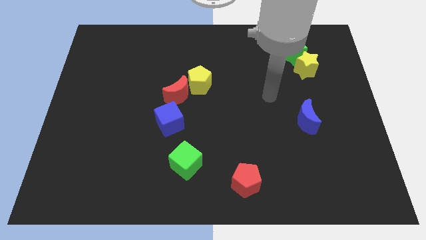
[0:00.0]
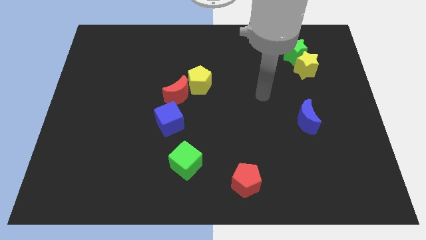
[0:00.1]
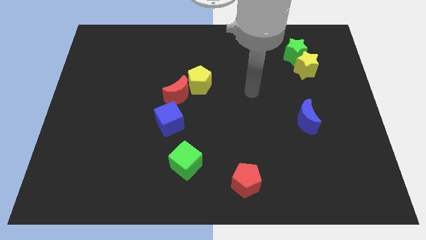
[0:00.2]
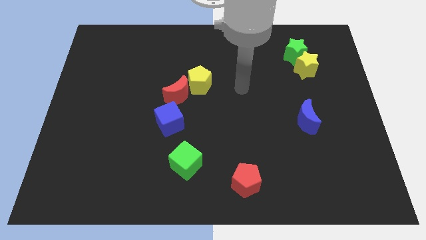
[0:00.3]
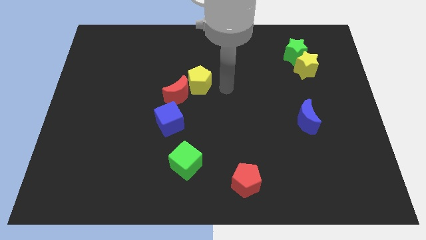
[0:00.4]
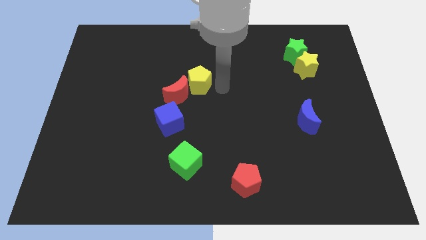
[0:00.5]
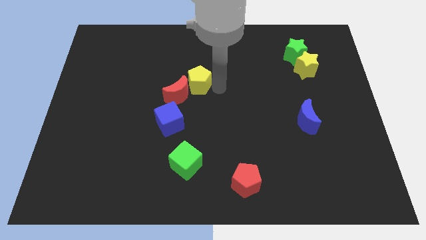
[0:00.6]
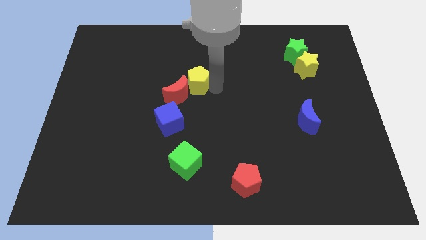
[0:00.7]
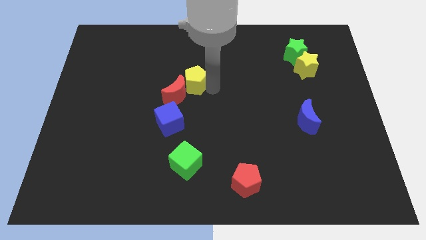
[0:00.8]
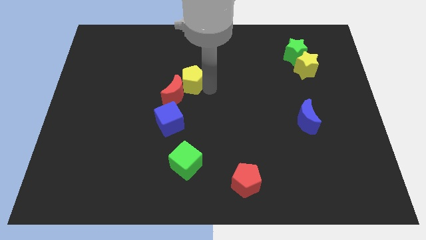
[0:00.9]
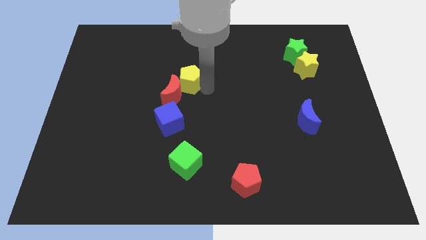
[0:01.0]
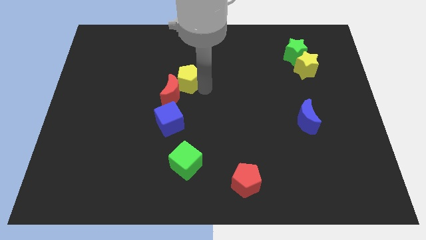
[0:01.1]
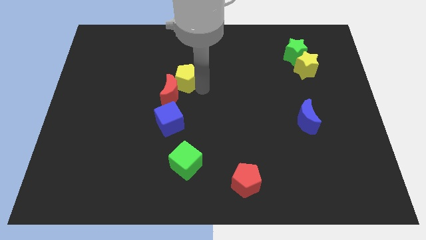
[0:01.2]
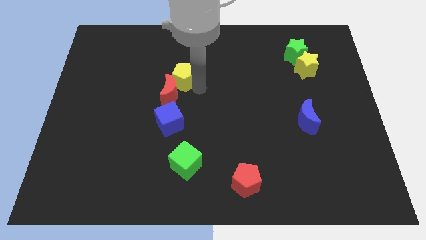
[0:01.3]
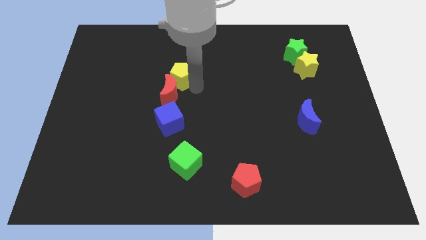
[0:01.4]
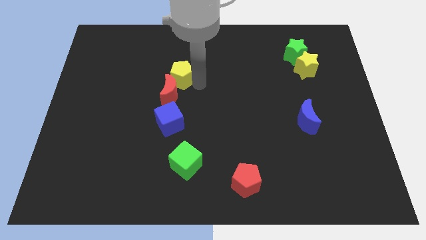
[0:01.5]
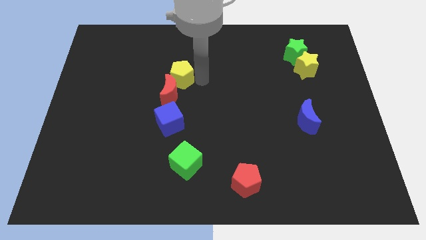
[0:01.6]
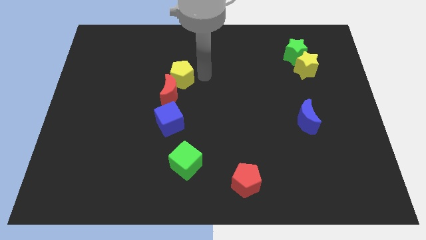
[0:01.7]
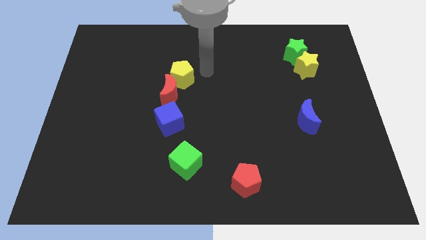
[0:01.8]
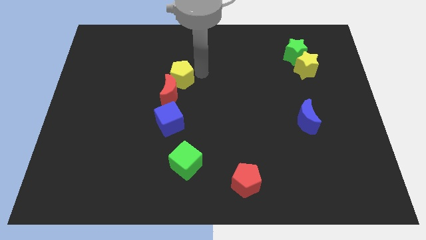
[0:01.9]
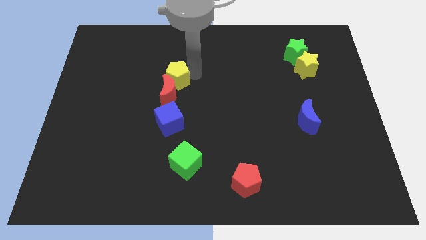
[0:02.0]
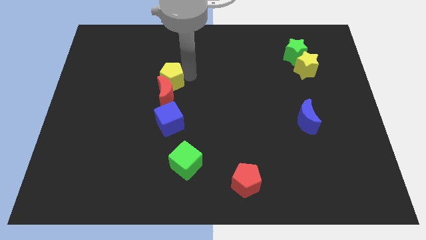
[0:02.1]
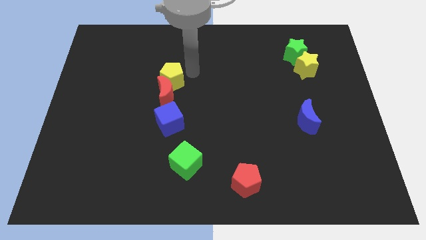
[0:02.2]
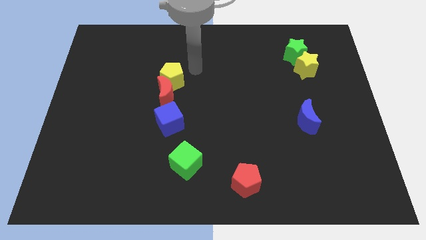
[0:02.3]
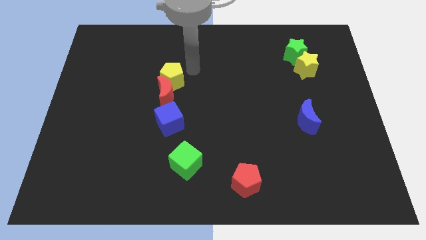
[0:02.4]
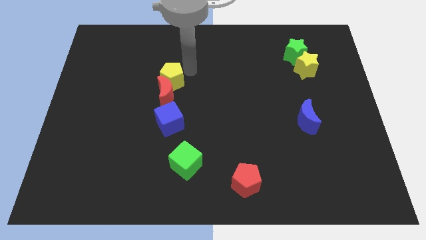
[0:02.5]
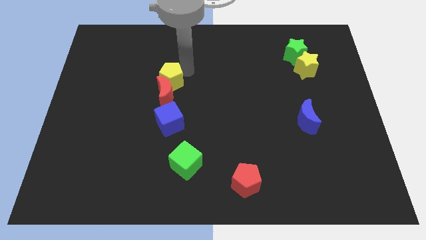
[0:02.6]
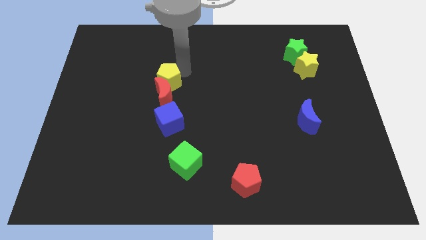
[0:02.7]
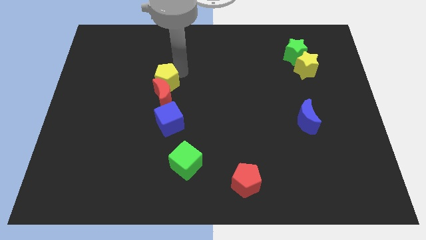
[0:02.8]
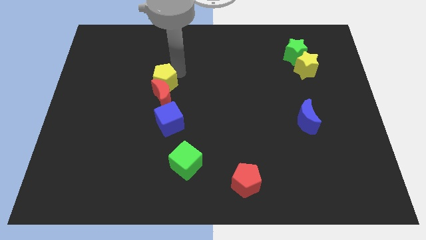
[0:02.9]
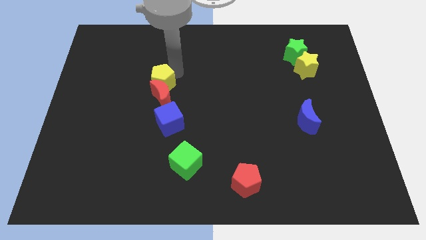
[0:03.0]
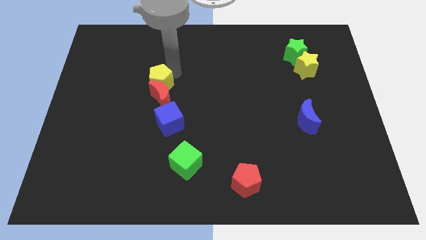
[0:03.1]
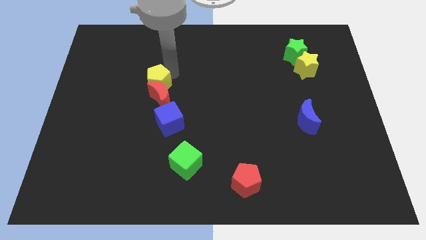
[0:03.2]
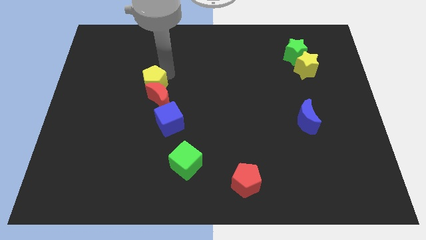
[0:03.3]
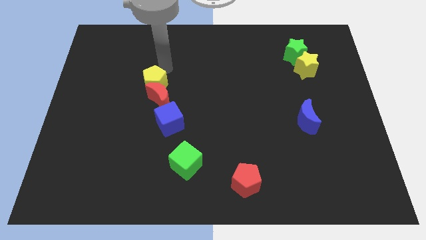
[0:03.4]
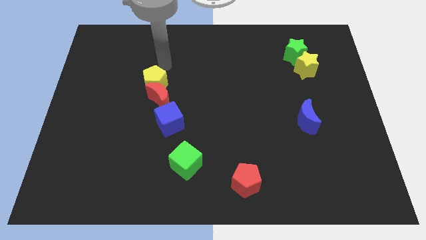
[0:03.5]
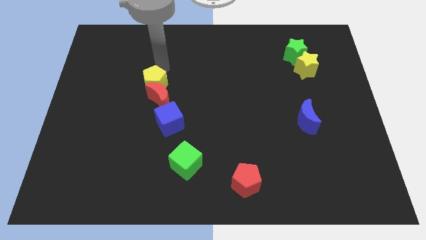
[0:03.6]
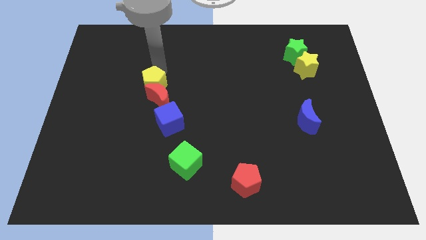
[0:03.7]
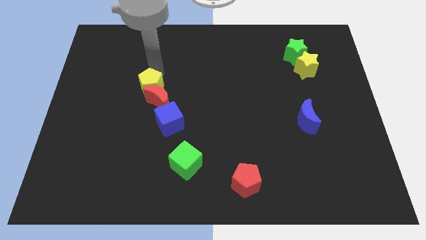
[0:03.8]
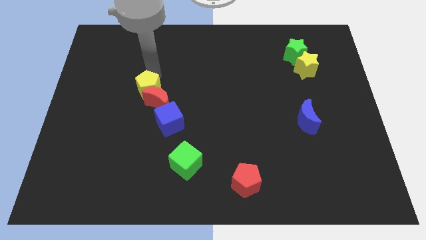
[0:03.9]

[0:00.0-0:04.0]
move the yellow pentagon somewhat down and to the left diagonally

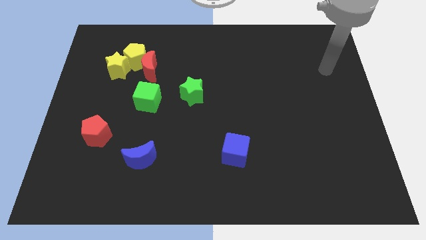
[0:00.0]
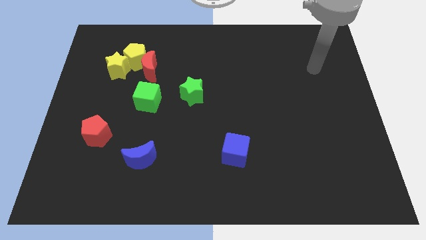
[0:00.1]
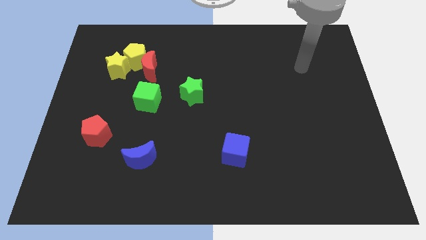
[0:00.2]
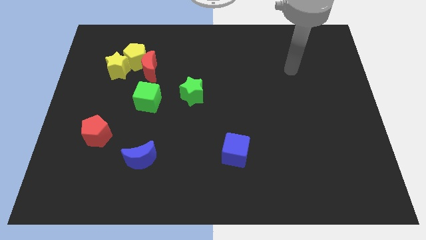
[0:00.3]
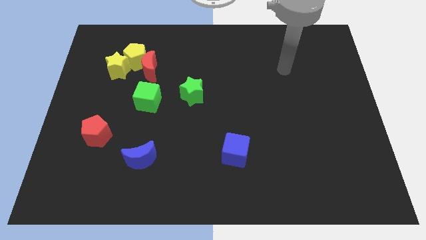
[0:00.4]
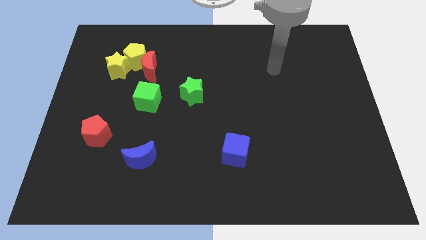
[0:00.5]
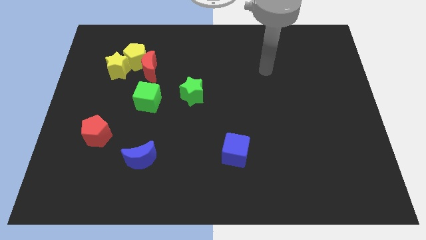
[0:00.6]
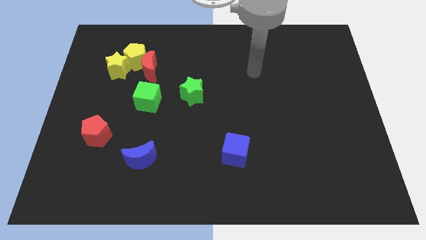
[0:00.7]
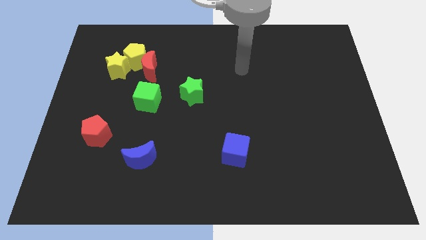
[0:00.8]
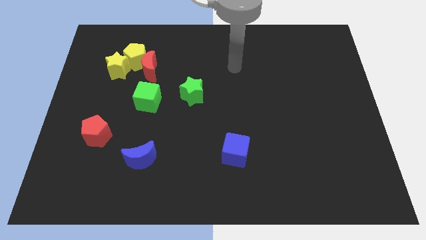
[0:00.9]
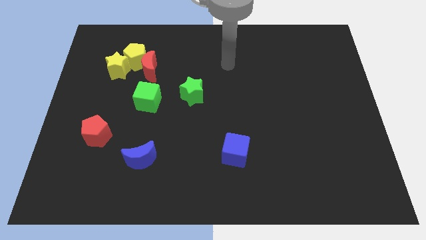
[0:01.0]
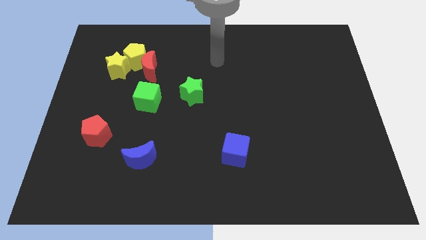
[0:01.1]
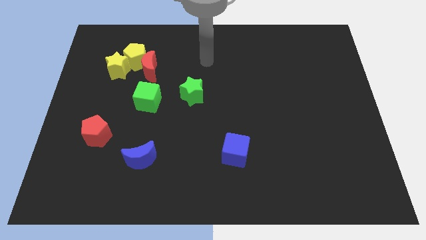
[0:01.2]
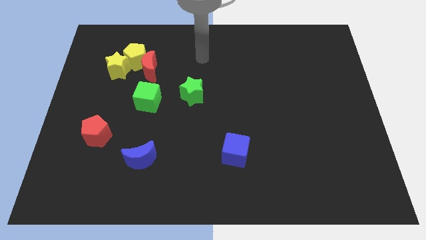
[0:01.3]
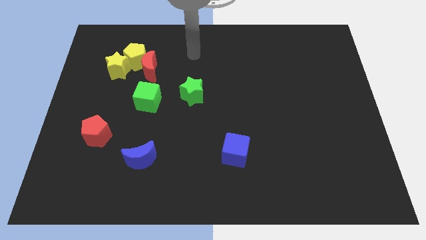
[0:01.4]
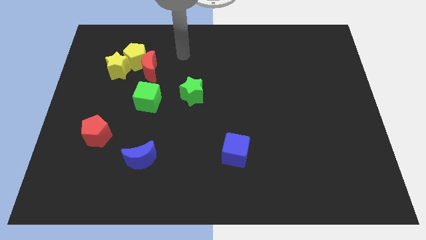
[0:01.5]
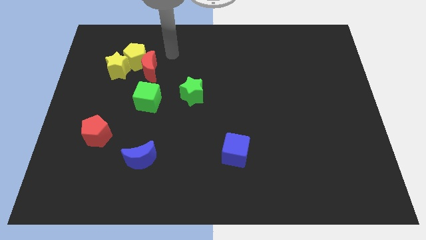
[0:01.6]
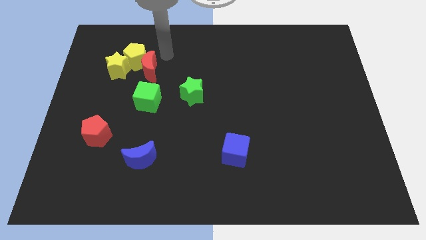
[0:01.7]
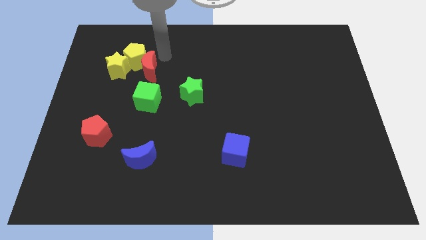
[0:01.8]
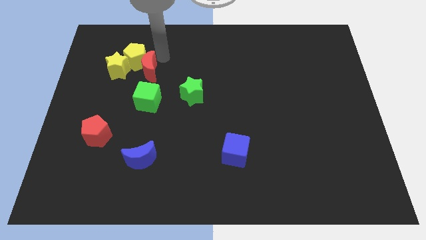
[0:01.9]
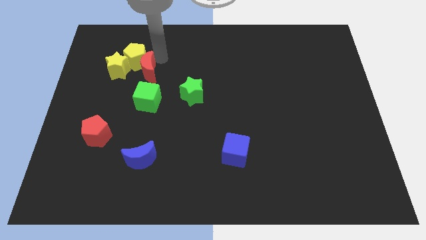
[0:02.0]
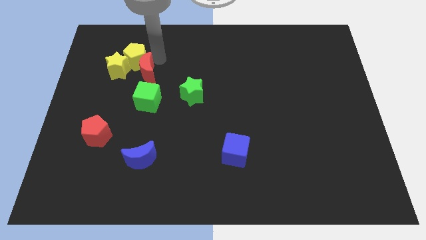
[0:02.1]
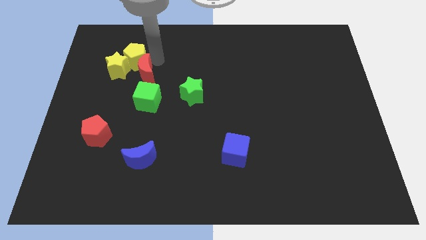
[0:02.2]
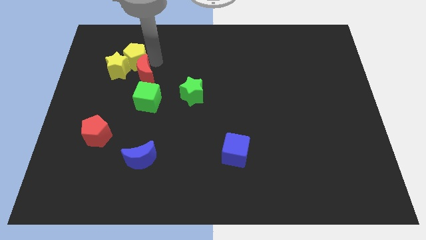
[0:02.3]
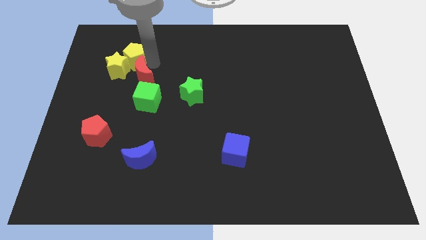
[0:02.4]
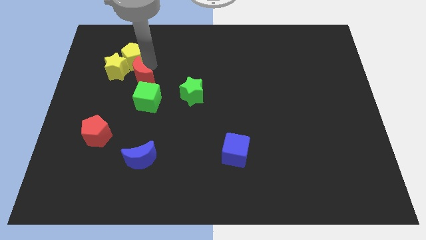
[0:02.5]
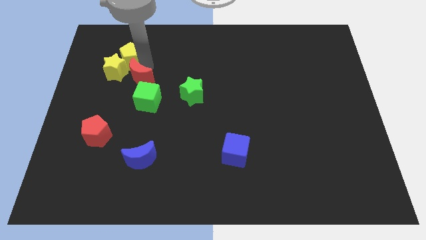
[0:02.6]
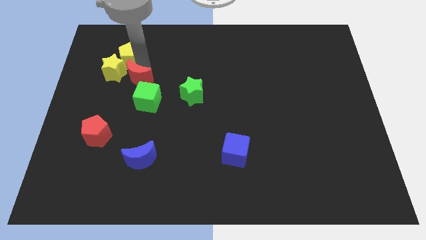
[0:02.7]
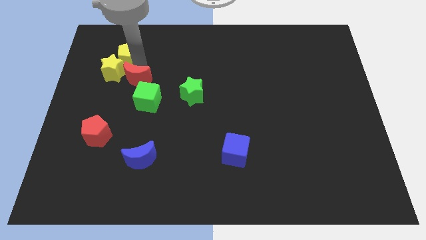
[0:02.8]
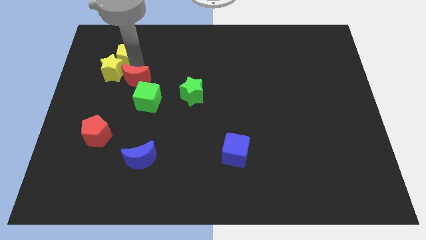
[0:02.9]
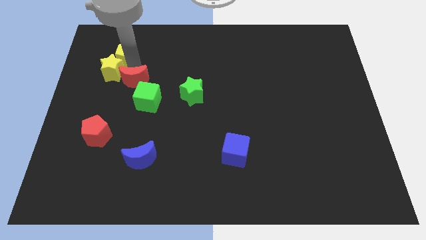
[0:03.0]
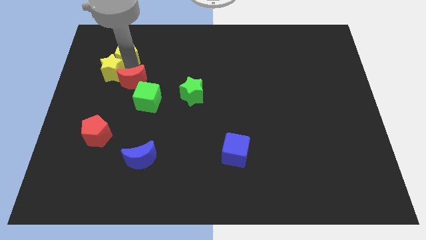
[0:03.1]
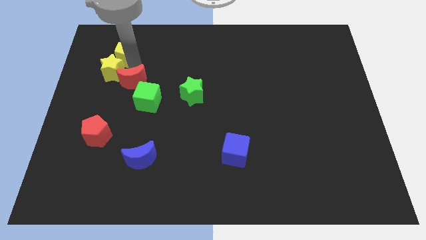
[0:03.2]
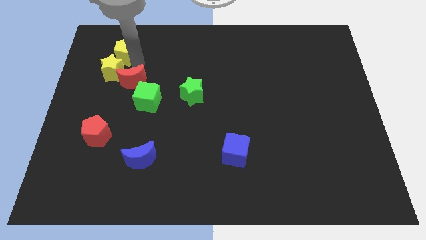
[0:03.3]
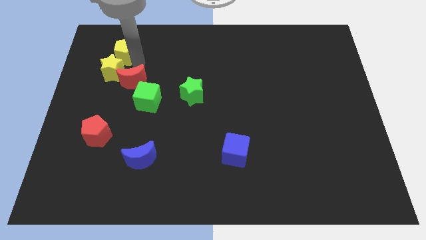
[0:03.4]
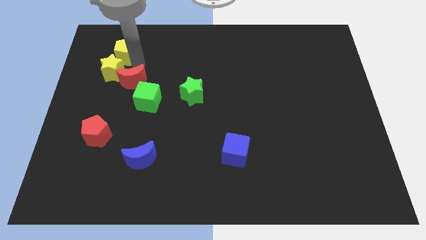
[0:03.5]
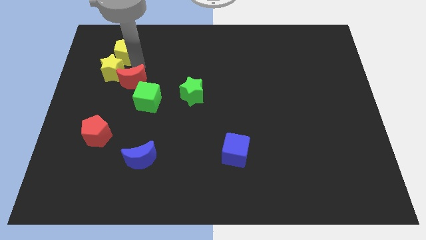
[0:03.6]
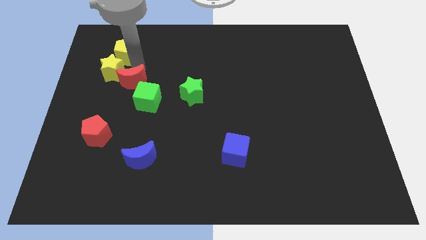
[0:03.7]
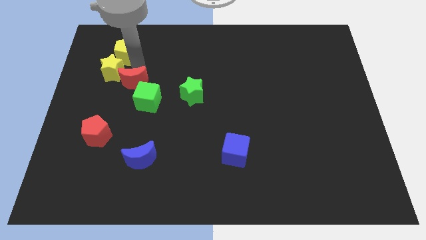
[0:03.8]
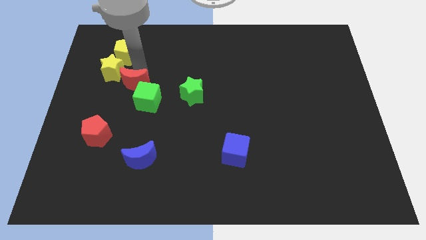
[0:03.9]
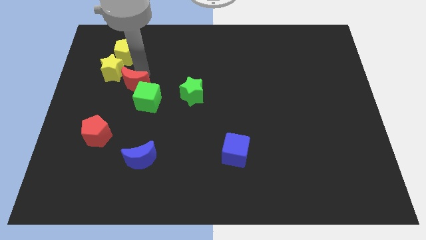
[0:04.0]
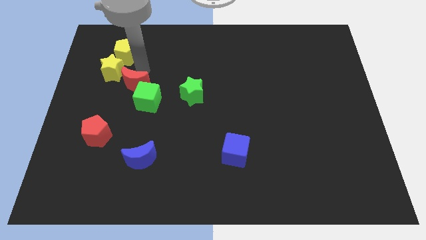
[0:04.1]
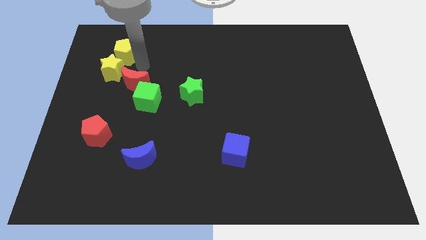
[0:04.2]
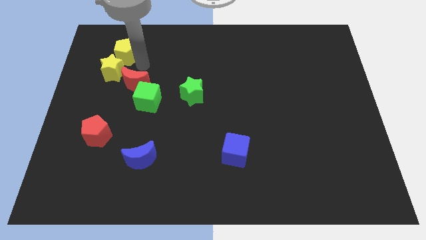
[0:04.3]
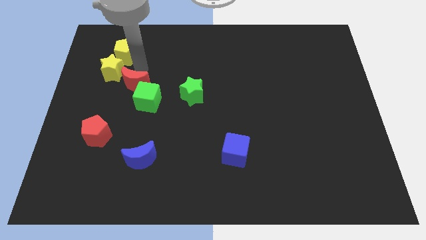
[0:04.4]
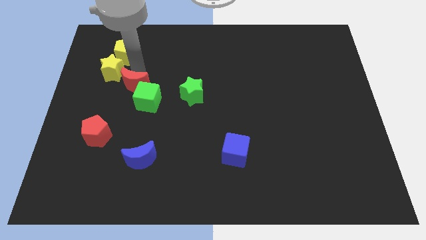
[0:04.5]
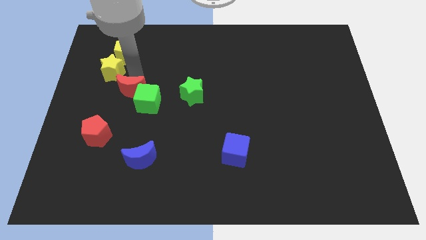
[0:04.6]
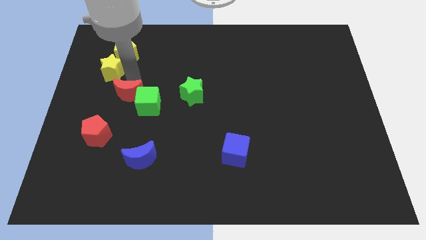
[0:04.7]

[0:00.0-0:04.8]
push the red moon somewhat downwards
